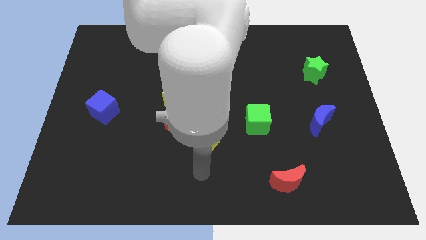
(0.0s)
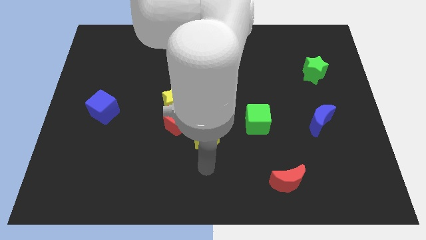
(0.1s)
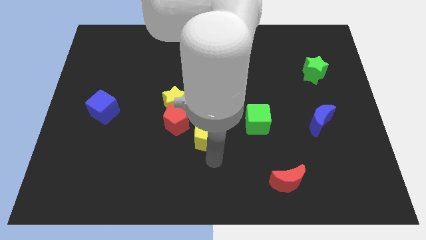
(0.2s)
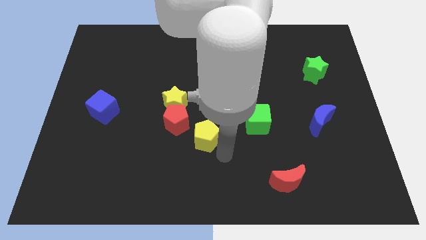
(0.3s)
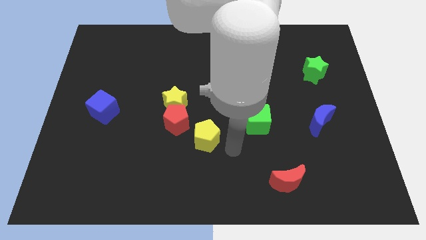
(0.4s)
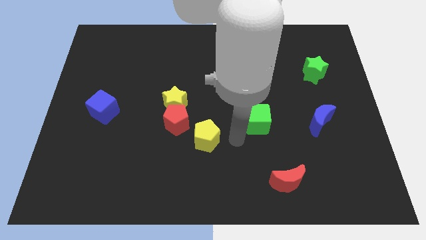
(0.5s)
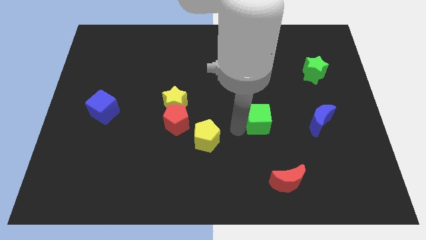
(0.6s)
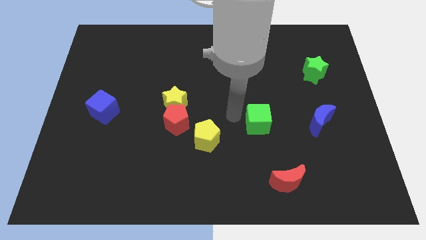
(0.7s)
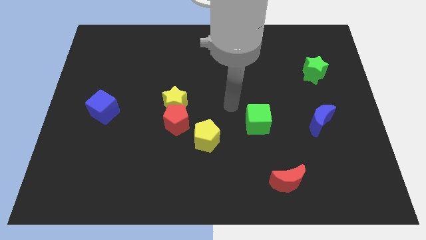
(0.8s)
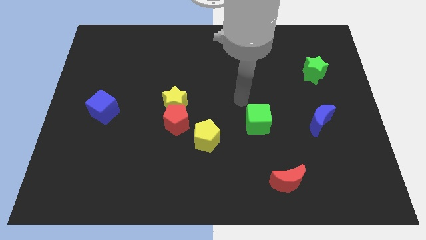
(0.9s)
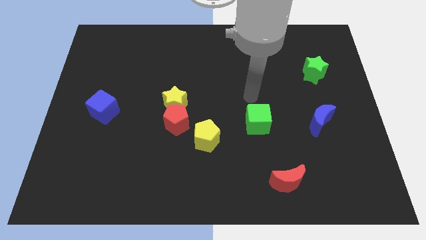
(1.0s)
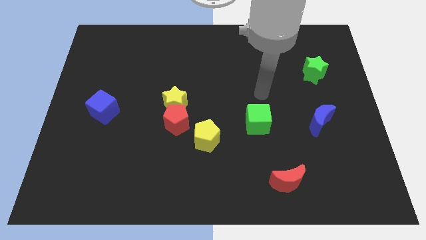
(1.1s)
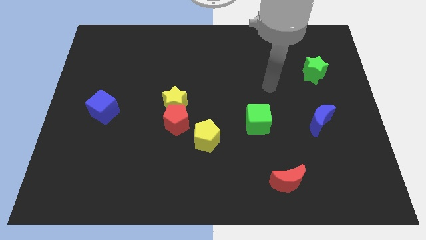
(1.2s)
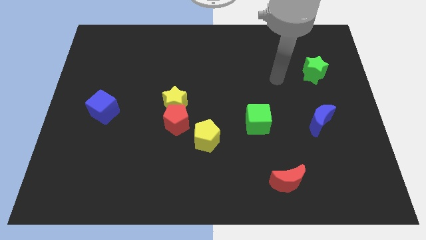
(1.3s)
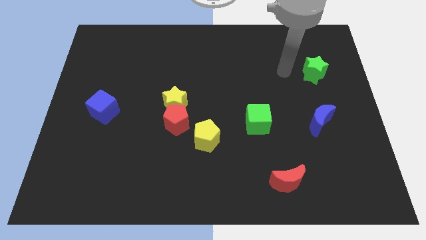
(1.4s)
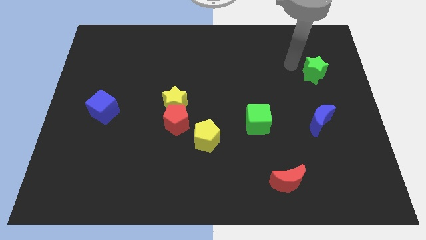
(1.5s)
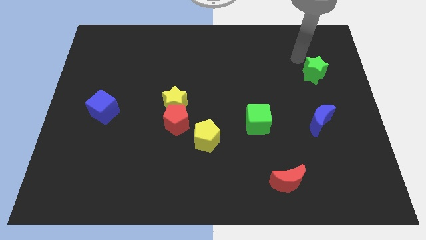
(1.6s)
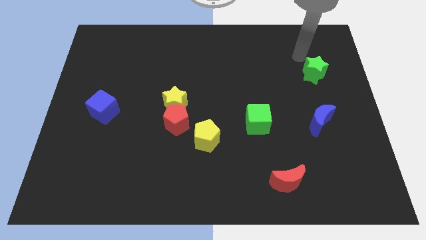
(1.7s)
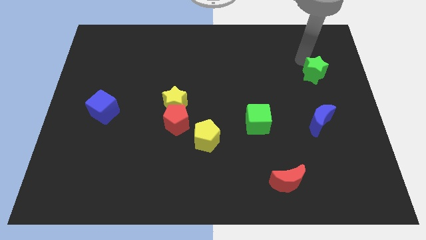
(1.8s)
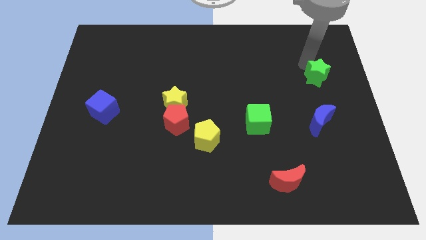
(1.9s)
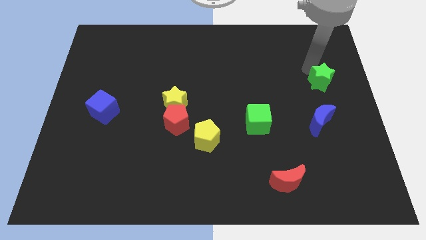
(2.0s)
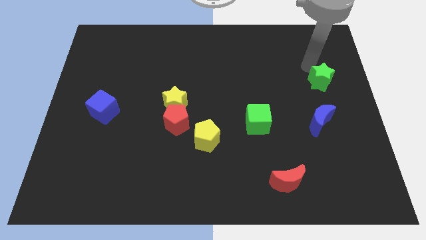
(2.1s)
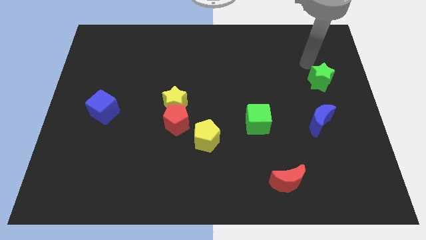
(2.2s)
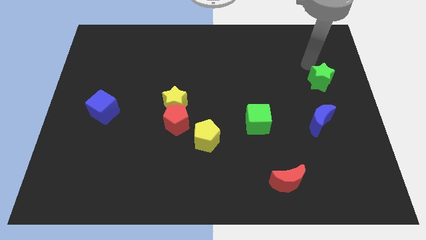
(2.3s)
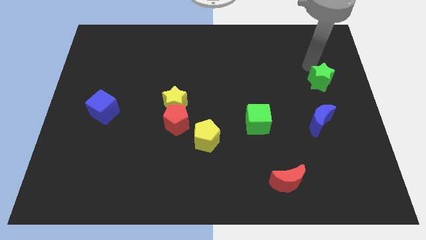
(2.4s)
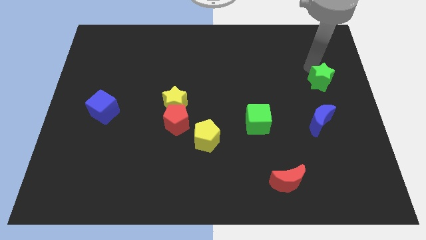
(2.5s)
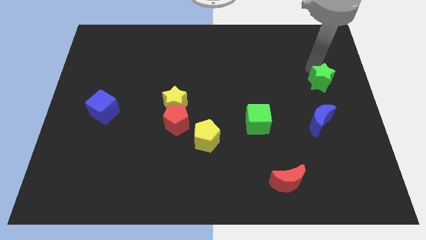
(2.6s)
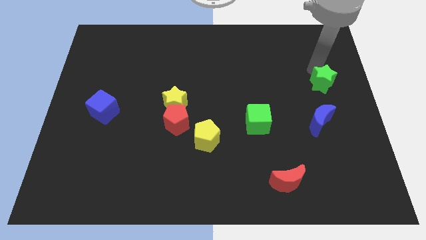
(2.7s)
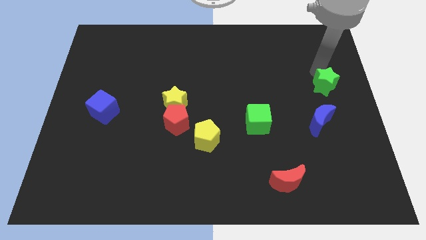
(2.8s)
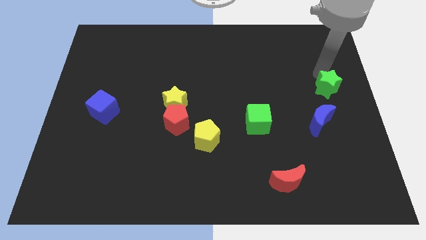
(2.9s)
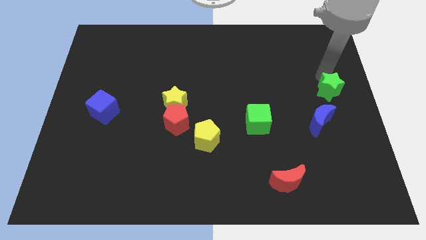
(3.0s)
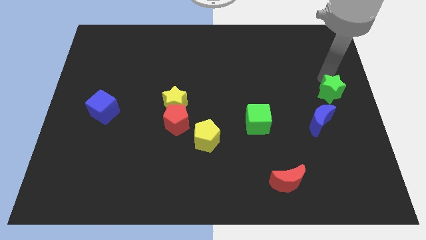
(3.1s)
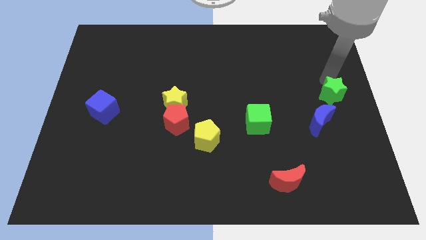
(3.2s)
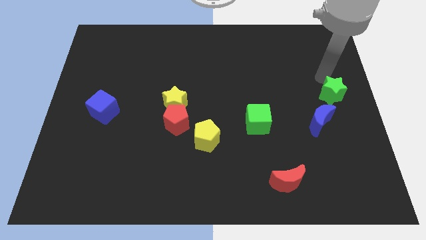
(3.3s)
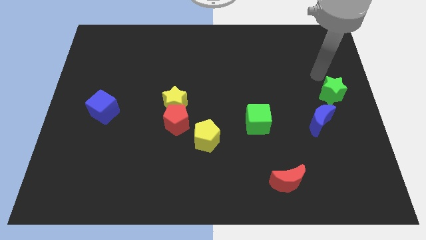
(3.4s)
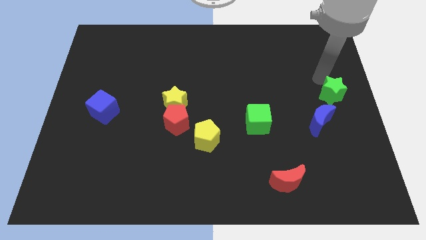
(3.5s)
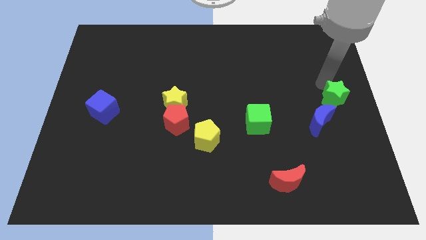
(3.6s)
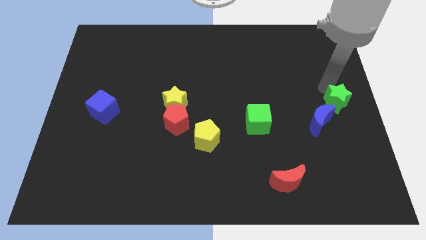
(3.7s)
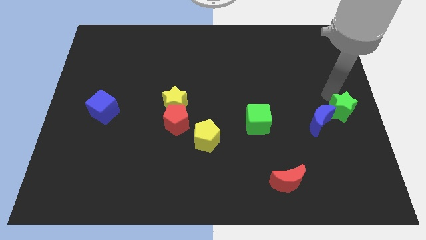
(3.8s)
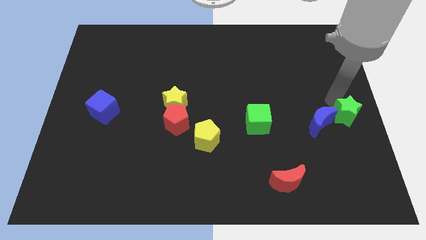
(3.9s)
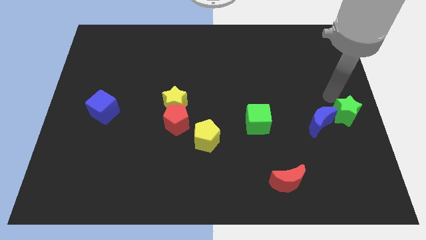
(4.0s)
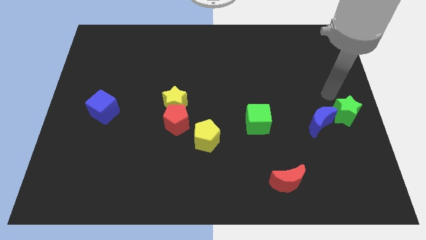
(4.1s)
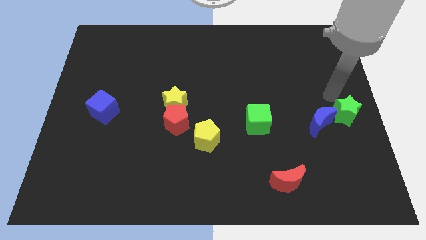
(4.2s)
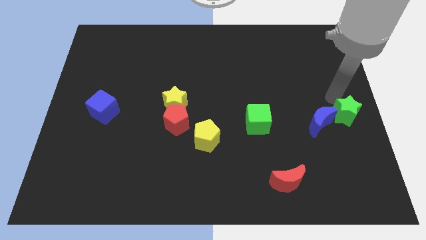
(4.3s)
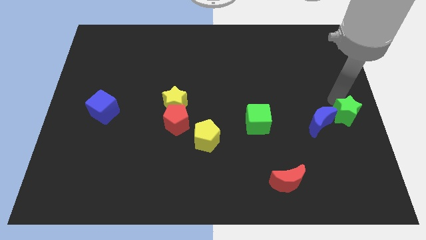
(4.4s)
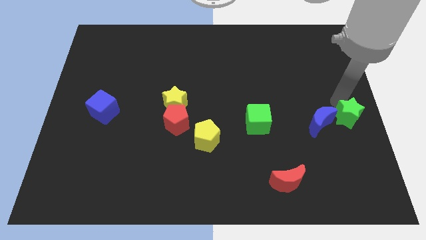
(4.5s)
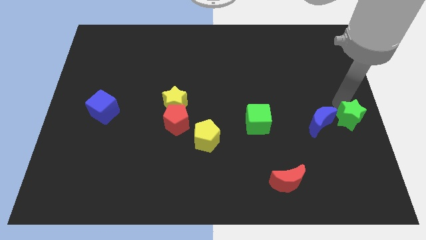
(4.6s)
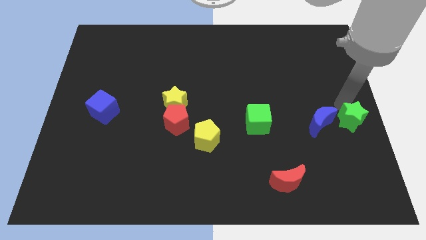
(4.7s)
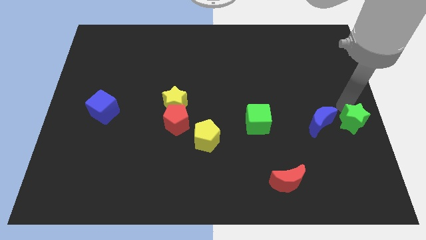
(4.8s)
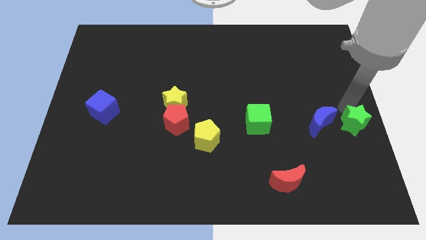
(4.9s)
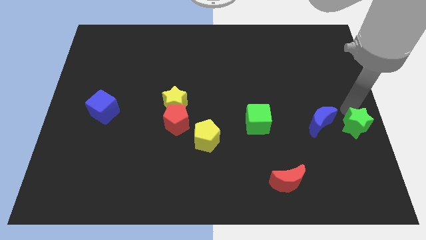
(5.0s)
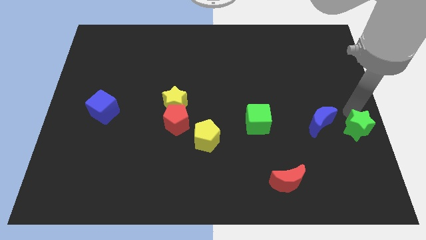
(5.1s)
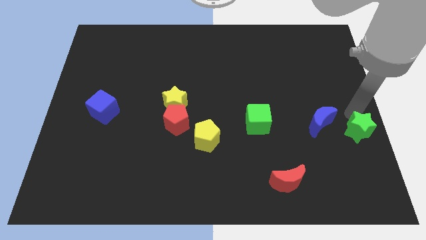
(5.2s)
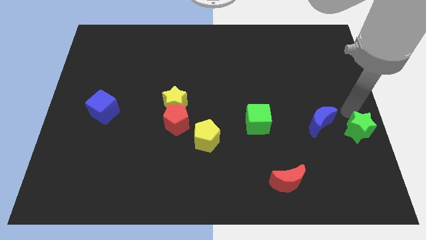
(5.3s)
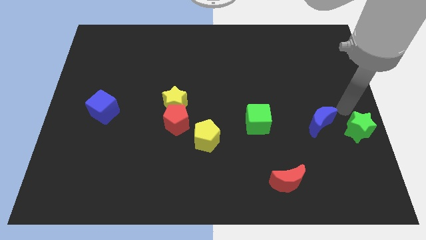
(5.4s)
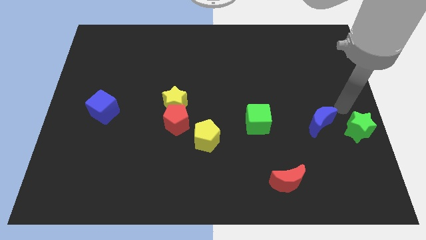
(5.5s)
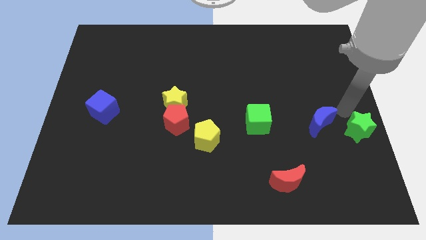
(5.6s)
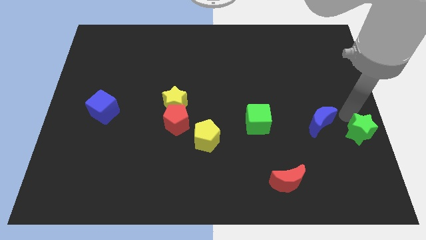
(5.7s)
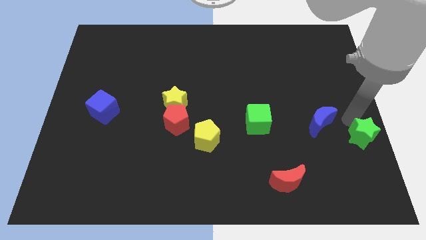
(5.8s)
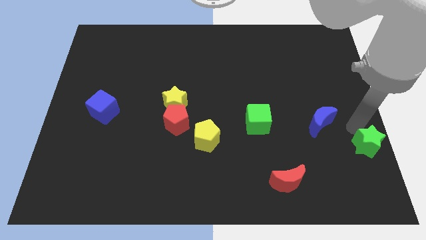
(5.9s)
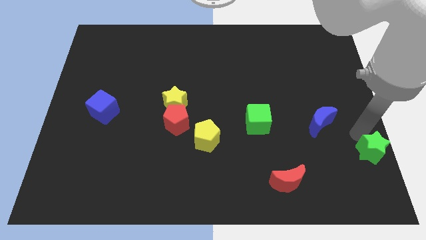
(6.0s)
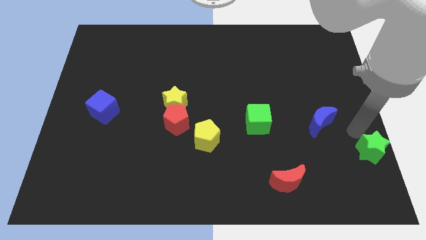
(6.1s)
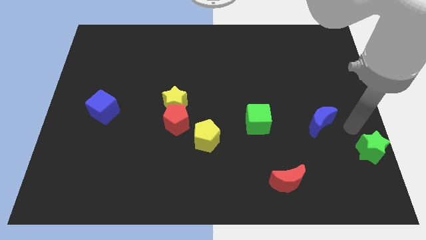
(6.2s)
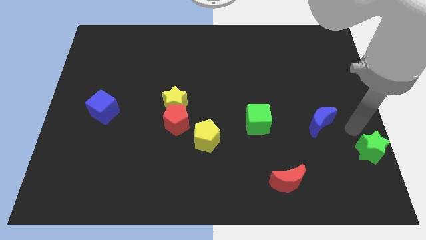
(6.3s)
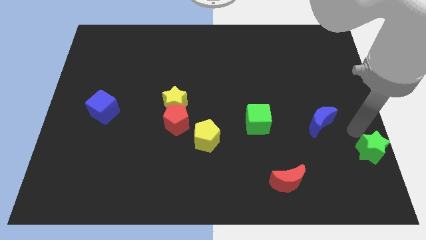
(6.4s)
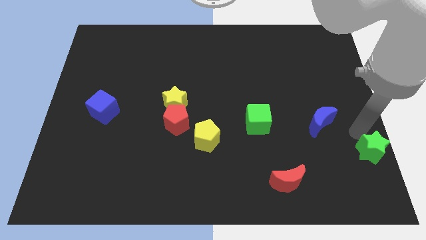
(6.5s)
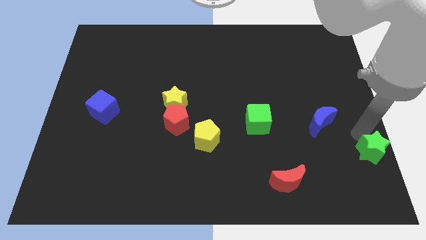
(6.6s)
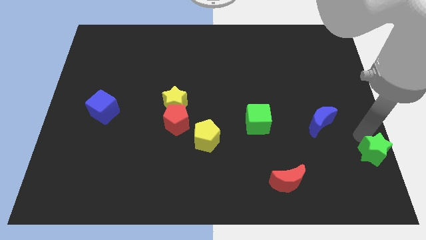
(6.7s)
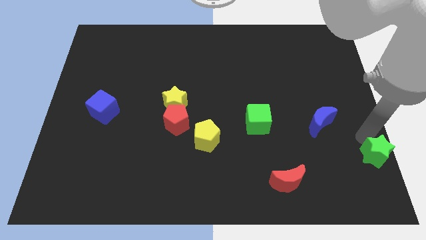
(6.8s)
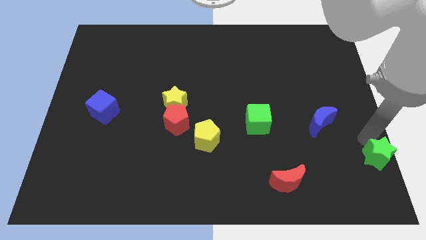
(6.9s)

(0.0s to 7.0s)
put the green star to the bottom right corner

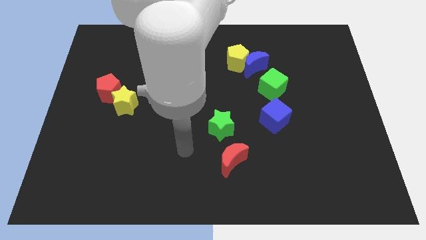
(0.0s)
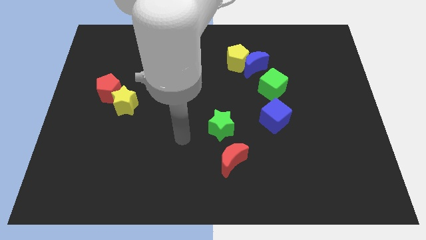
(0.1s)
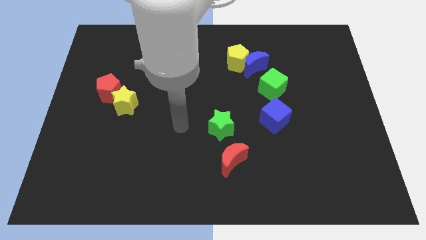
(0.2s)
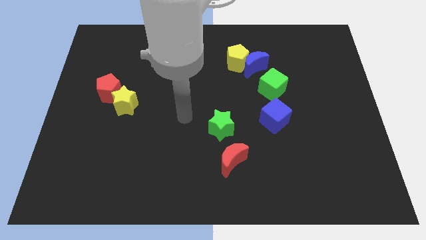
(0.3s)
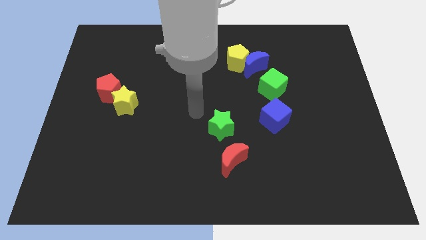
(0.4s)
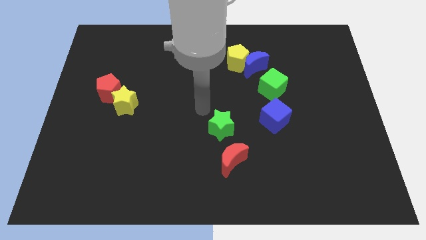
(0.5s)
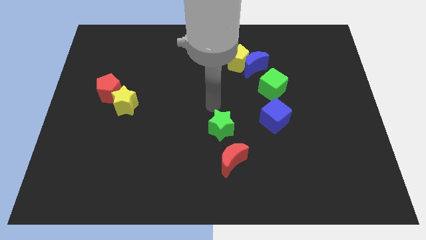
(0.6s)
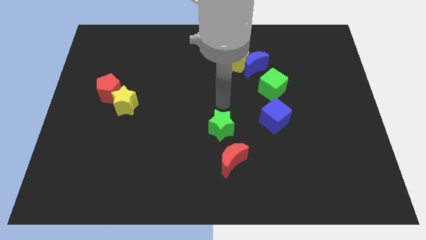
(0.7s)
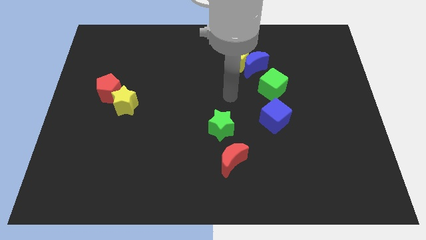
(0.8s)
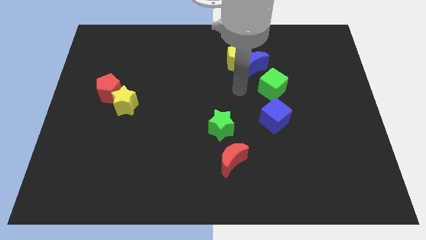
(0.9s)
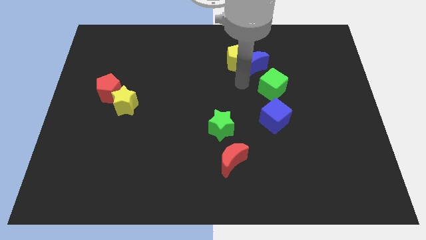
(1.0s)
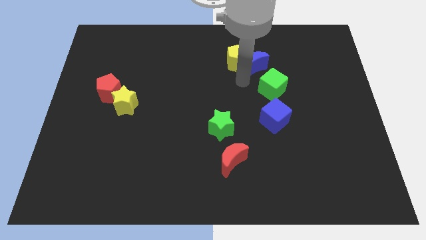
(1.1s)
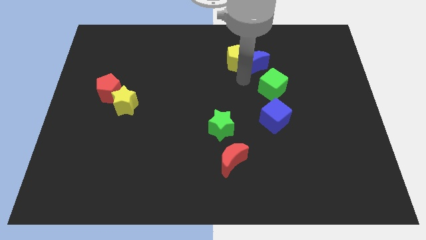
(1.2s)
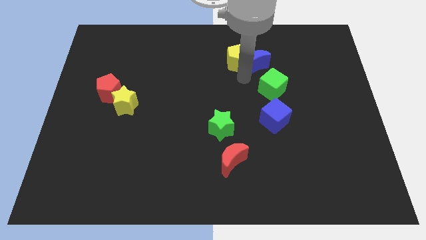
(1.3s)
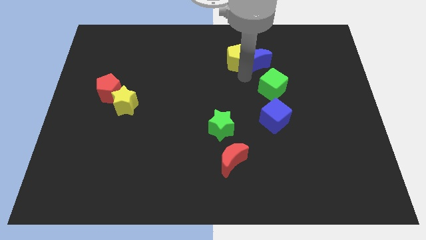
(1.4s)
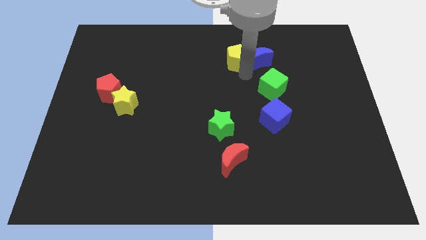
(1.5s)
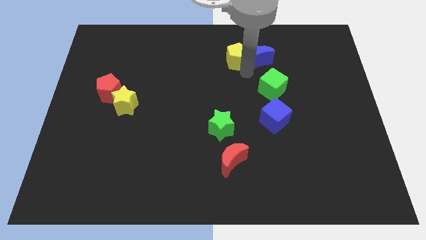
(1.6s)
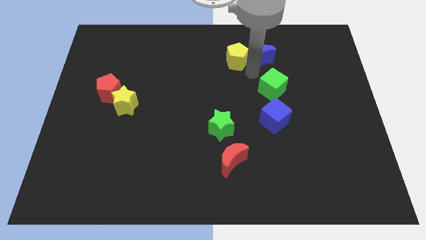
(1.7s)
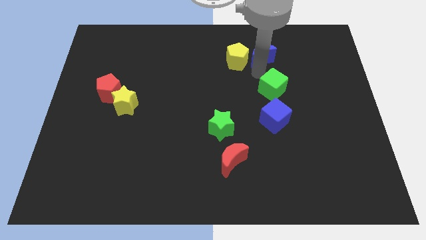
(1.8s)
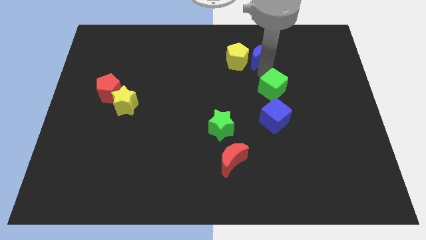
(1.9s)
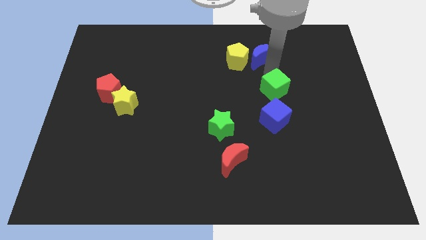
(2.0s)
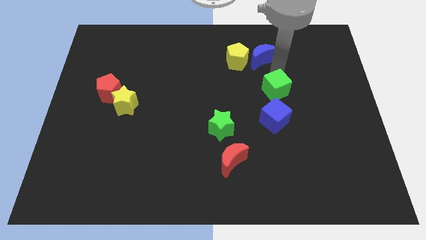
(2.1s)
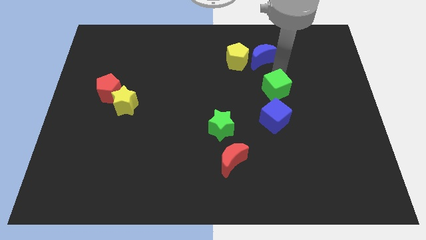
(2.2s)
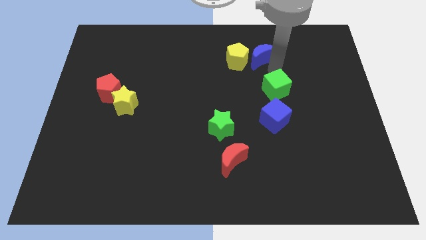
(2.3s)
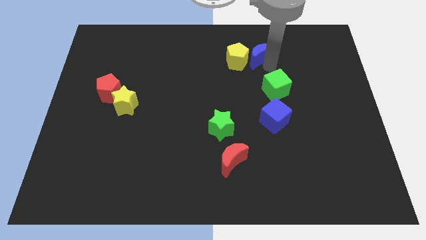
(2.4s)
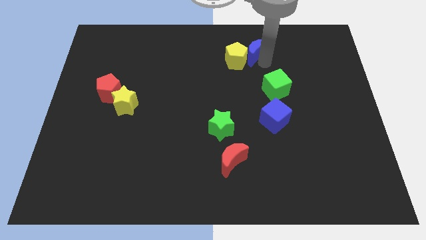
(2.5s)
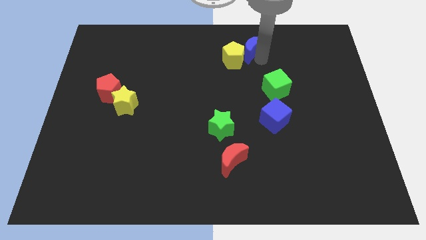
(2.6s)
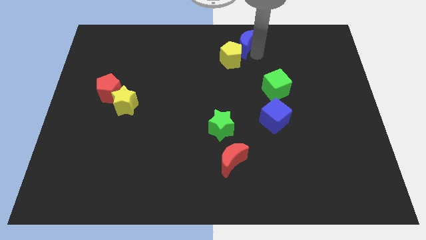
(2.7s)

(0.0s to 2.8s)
move the blue moon to the towards your base
